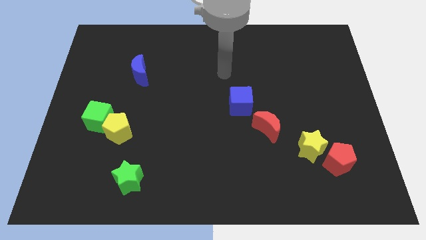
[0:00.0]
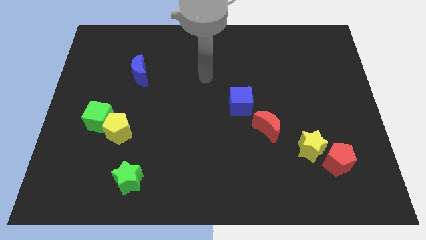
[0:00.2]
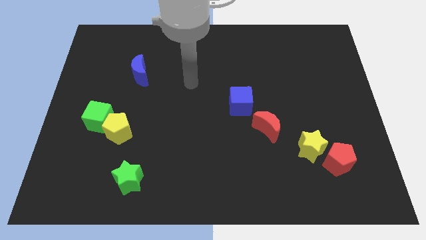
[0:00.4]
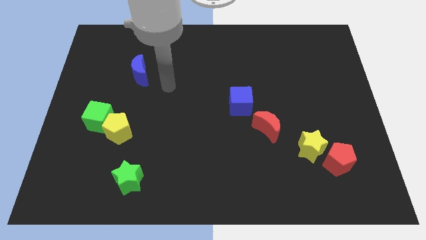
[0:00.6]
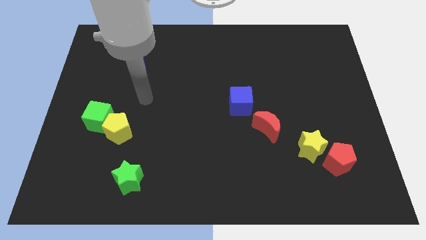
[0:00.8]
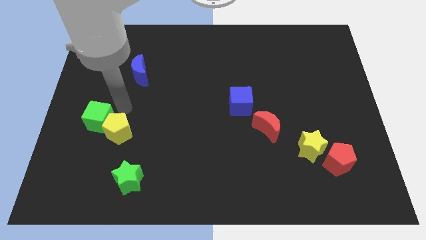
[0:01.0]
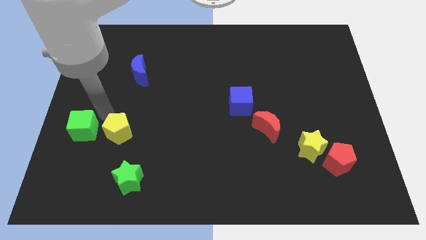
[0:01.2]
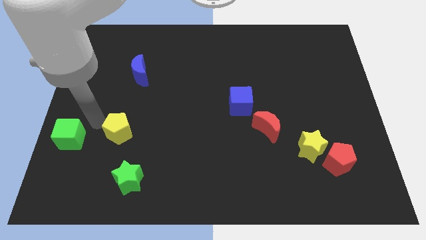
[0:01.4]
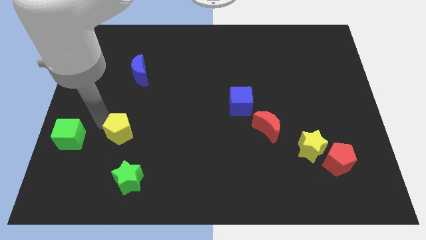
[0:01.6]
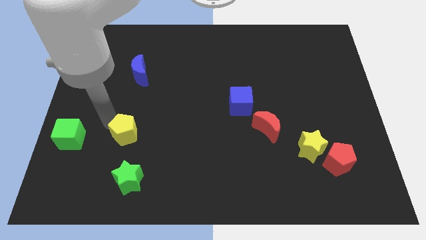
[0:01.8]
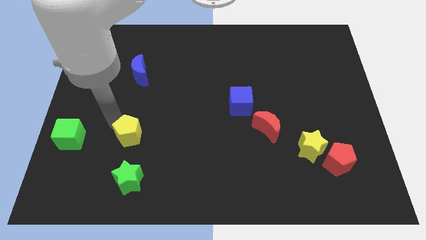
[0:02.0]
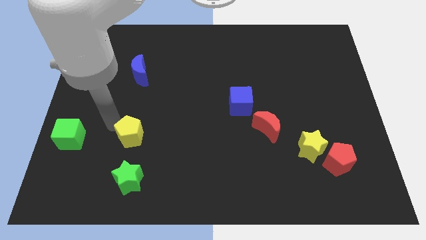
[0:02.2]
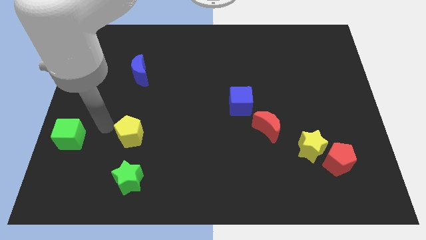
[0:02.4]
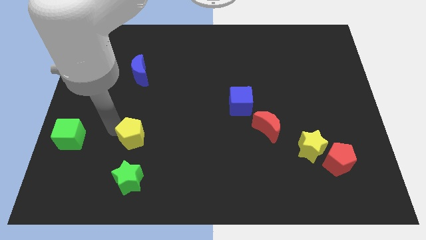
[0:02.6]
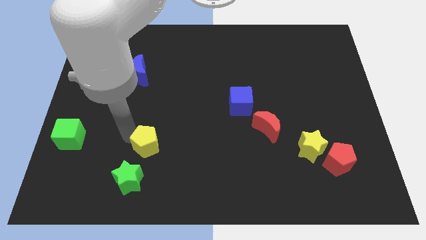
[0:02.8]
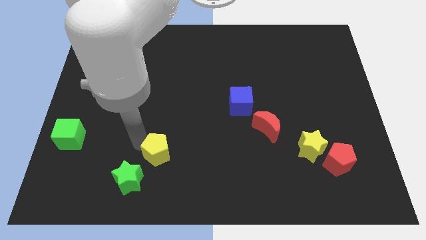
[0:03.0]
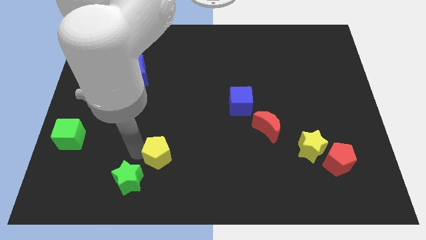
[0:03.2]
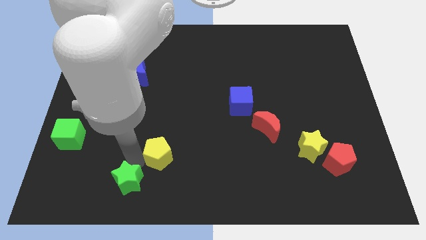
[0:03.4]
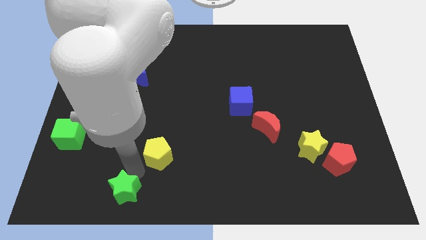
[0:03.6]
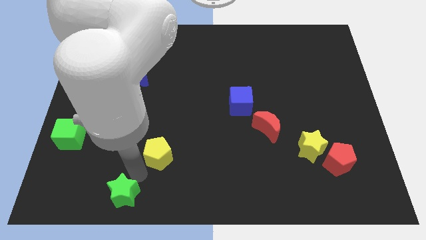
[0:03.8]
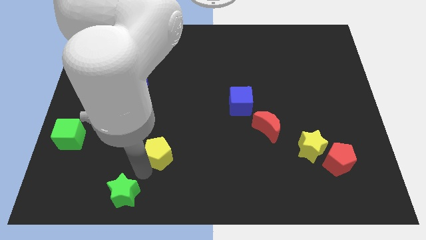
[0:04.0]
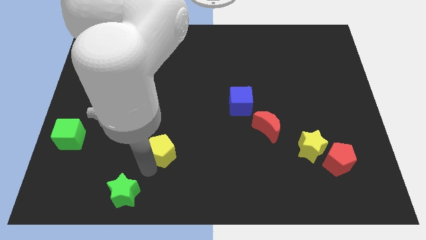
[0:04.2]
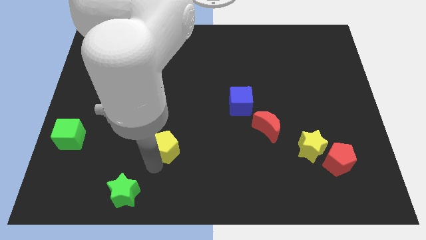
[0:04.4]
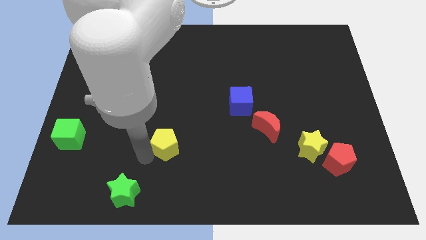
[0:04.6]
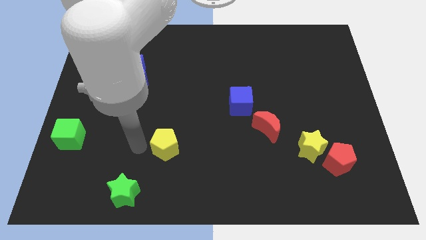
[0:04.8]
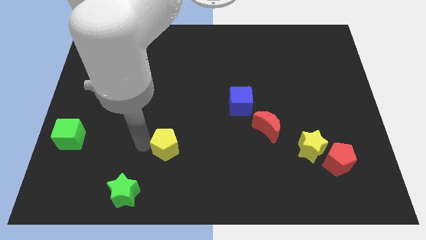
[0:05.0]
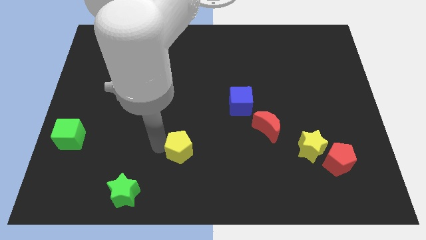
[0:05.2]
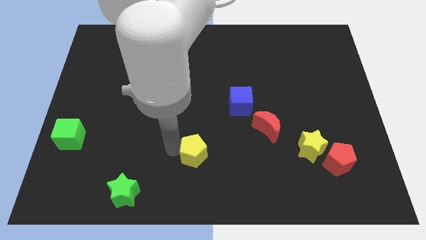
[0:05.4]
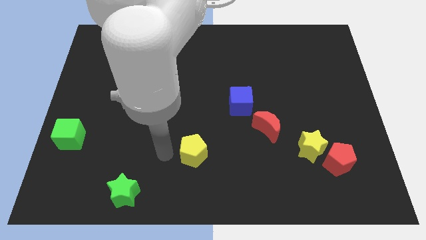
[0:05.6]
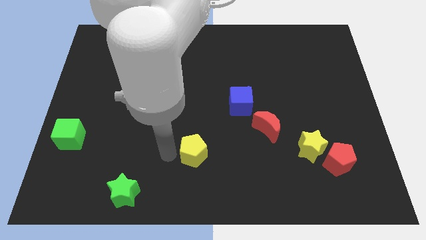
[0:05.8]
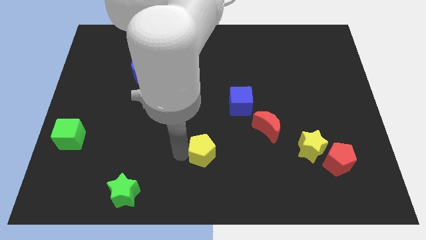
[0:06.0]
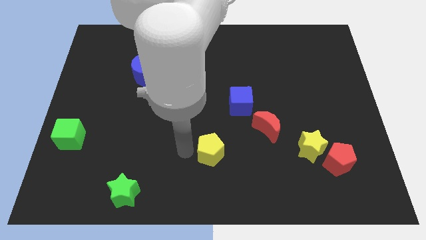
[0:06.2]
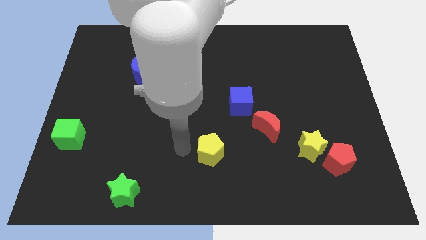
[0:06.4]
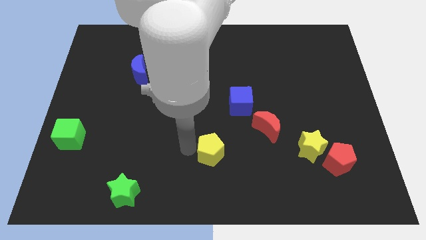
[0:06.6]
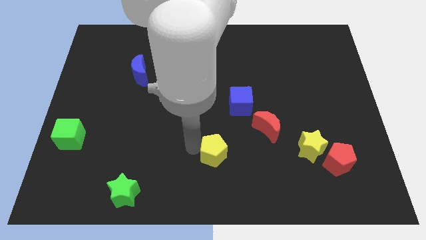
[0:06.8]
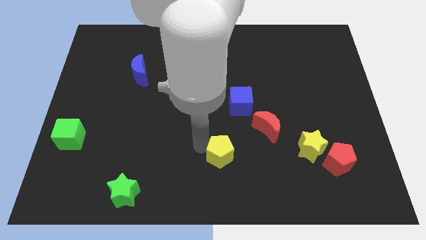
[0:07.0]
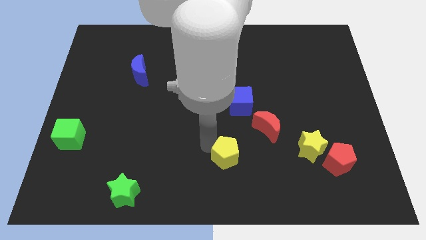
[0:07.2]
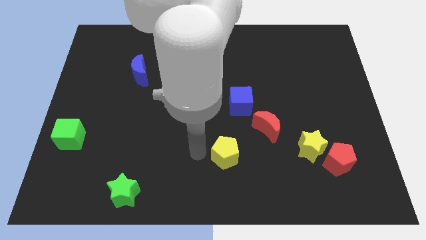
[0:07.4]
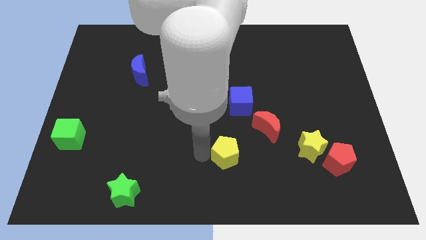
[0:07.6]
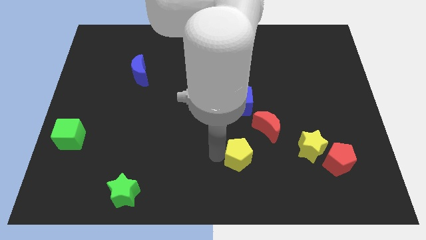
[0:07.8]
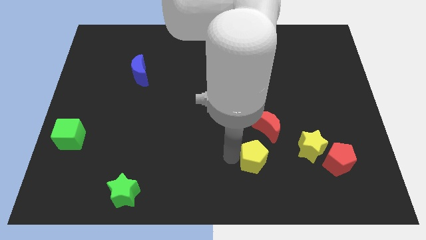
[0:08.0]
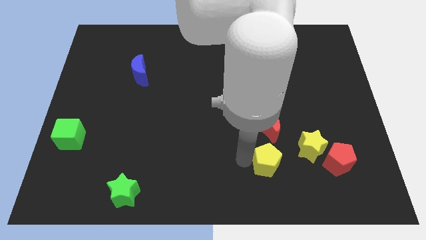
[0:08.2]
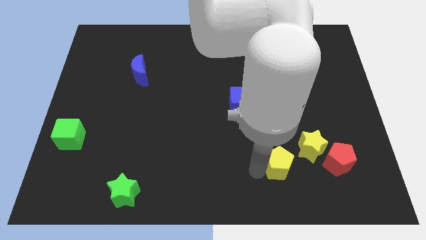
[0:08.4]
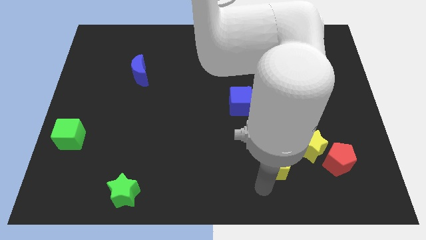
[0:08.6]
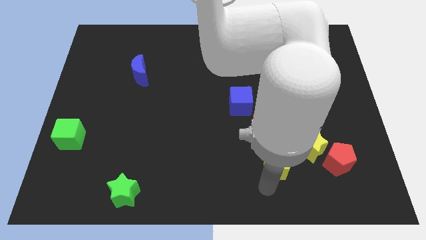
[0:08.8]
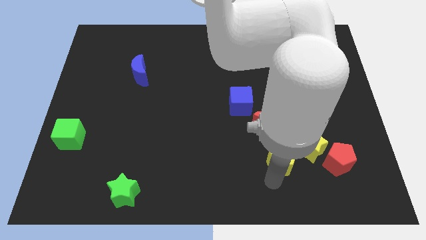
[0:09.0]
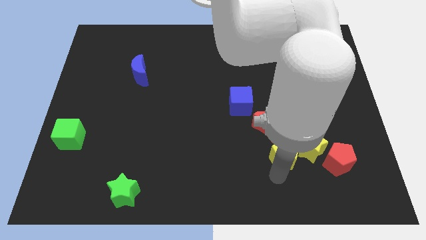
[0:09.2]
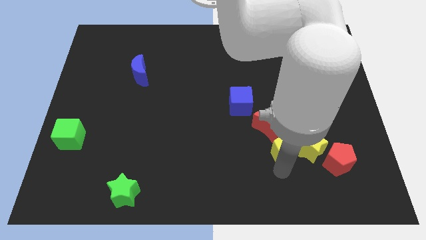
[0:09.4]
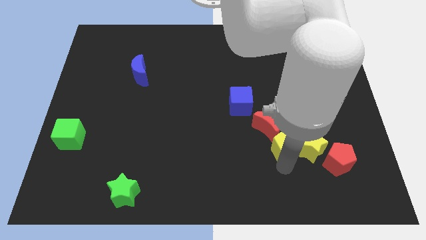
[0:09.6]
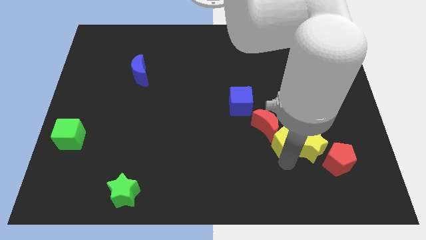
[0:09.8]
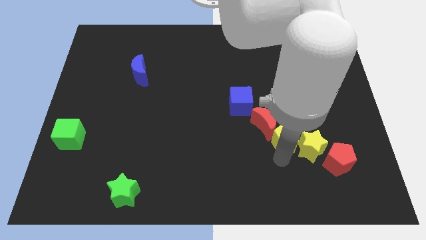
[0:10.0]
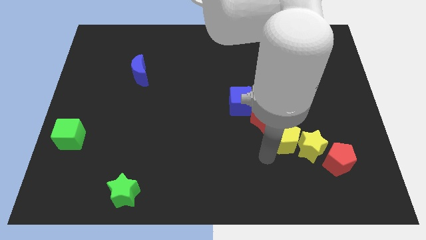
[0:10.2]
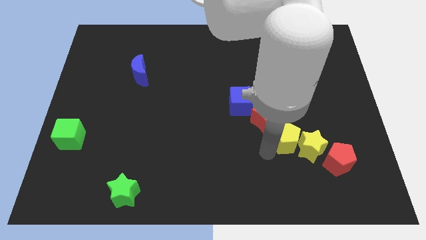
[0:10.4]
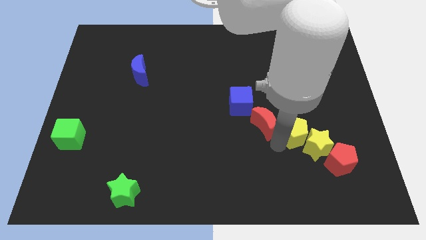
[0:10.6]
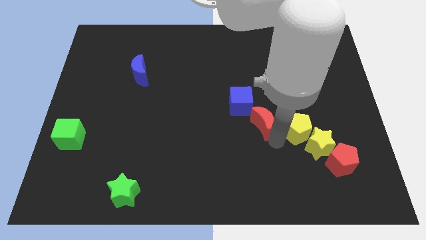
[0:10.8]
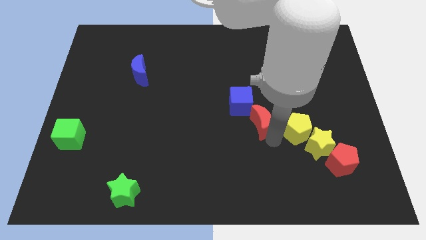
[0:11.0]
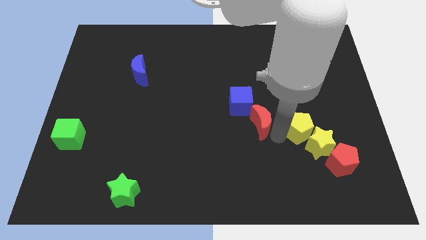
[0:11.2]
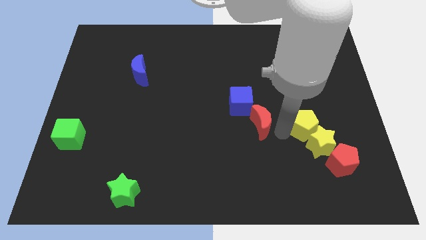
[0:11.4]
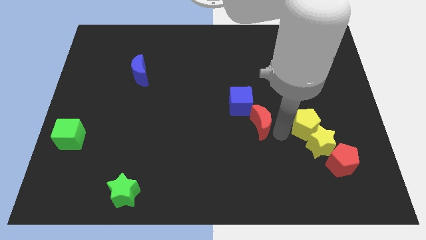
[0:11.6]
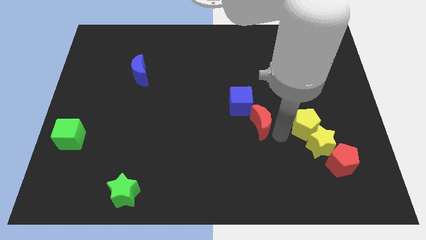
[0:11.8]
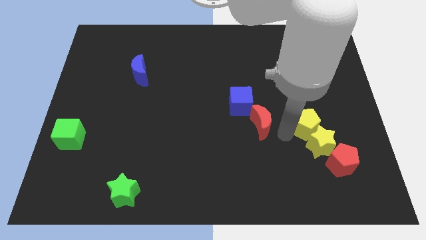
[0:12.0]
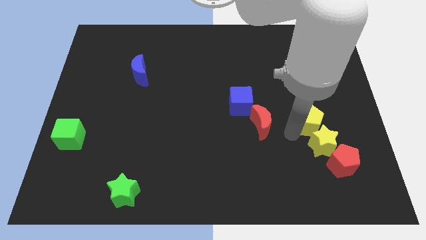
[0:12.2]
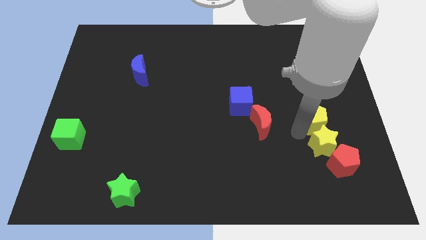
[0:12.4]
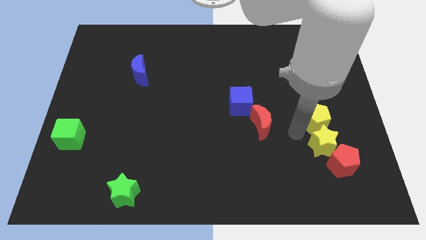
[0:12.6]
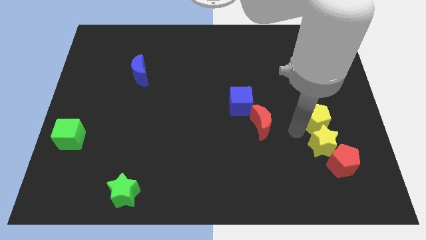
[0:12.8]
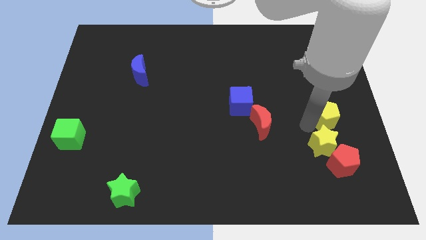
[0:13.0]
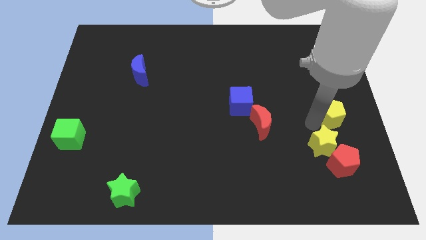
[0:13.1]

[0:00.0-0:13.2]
push the yellow pentagon to the center right

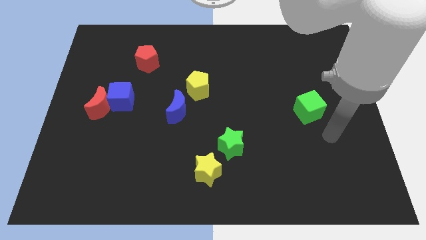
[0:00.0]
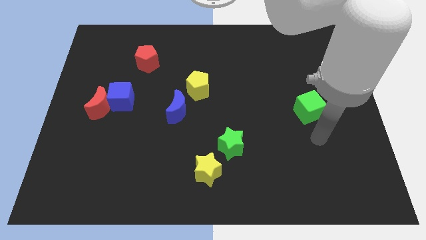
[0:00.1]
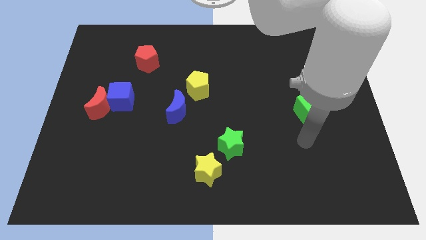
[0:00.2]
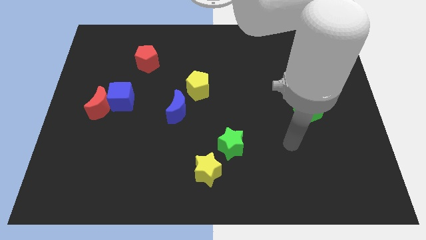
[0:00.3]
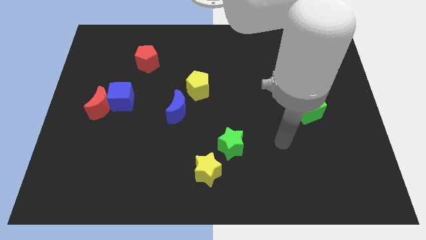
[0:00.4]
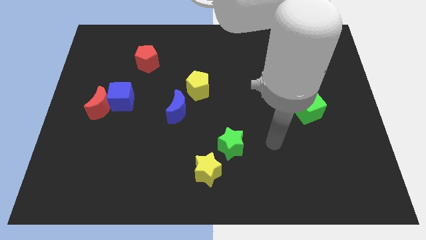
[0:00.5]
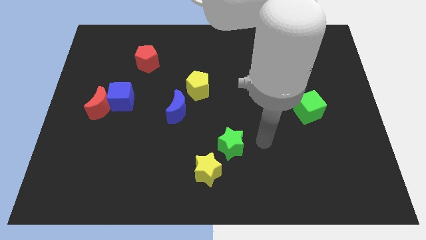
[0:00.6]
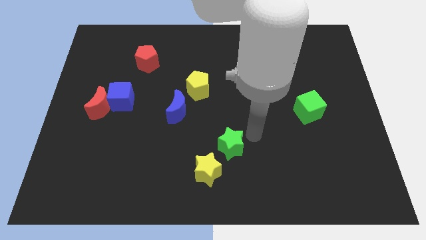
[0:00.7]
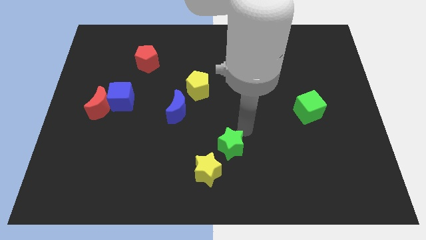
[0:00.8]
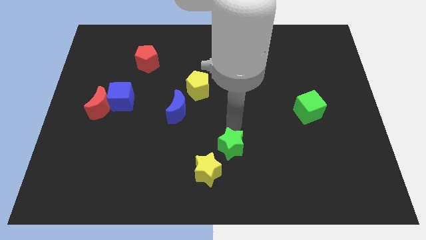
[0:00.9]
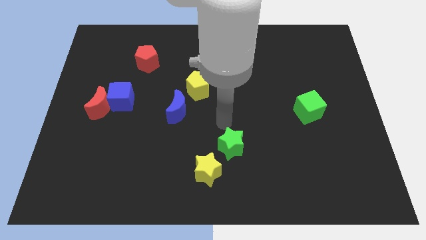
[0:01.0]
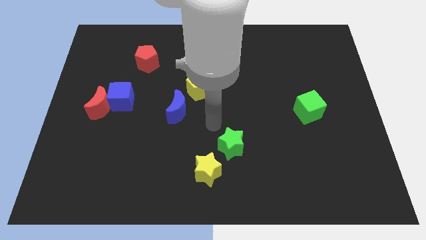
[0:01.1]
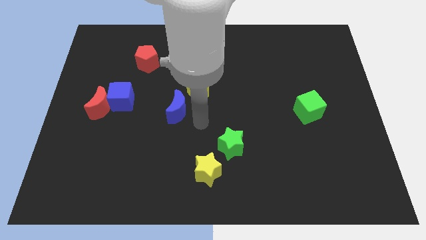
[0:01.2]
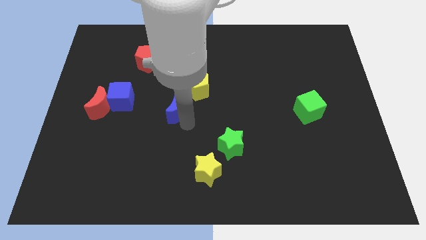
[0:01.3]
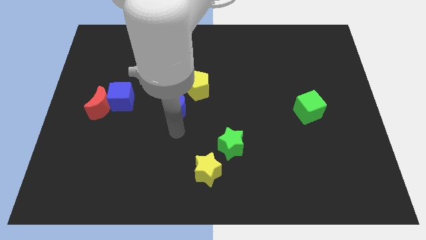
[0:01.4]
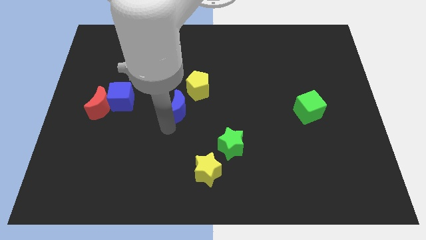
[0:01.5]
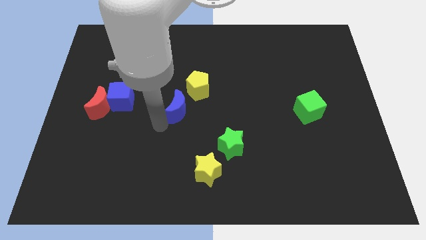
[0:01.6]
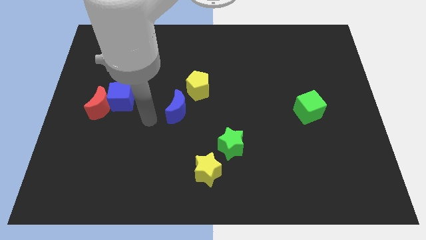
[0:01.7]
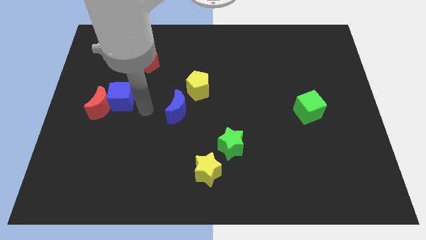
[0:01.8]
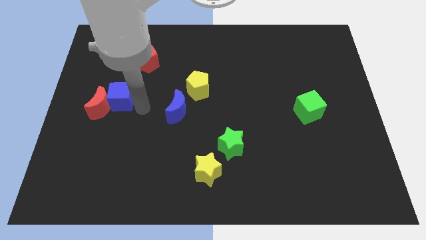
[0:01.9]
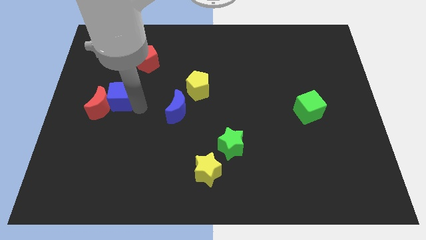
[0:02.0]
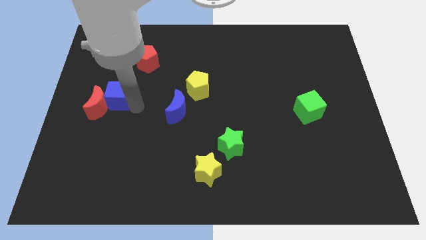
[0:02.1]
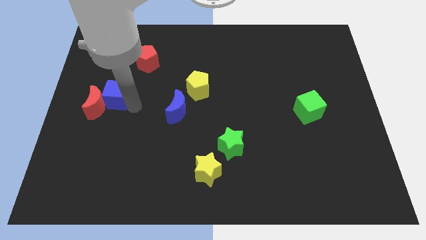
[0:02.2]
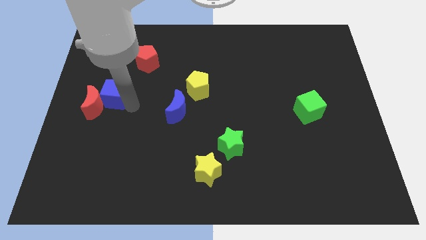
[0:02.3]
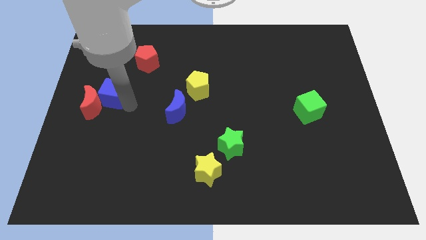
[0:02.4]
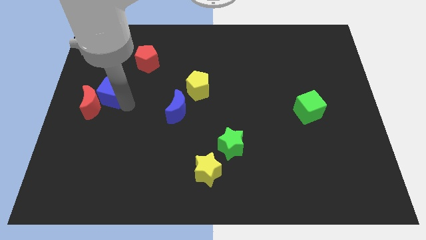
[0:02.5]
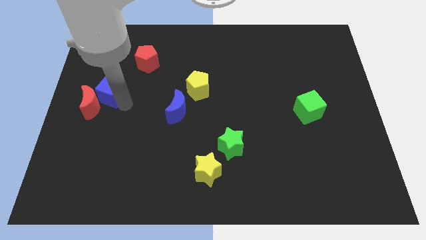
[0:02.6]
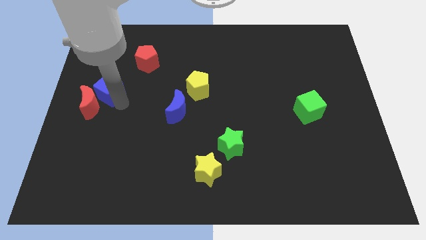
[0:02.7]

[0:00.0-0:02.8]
slide the blue cube to the left side of the board
